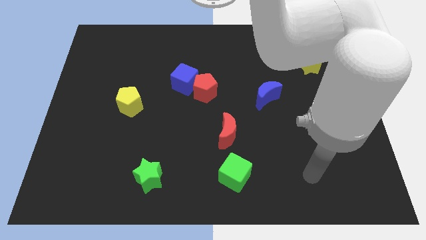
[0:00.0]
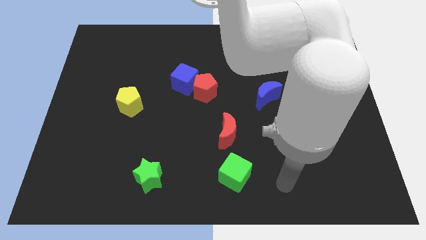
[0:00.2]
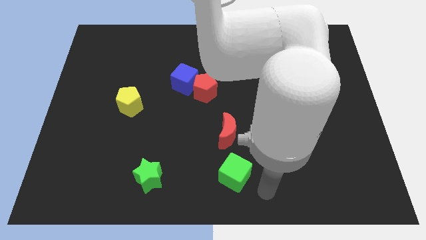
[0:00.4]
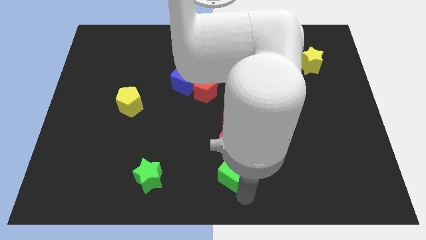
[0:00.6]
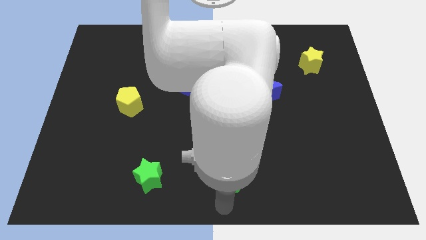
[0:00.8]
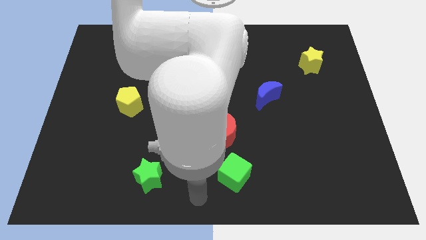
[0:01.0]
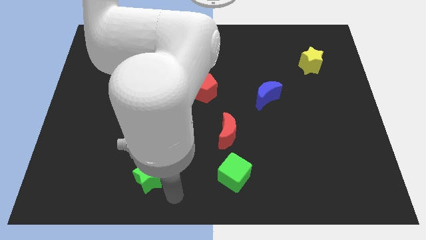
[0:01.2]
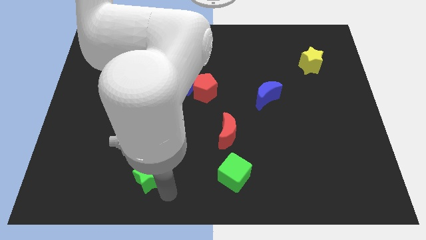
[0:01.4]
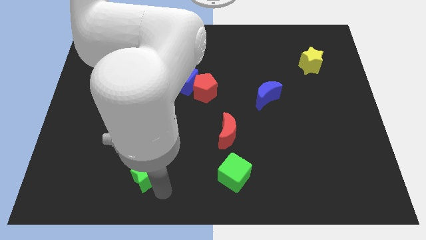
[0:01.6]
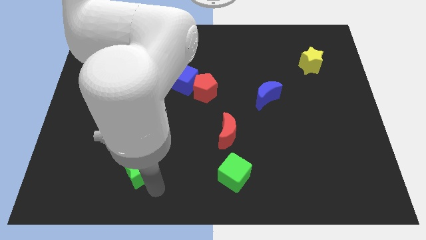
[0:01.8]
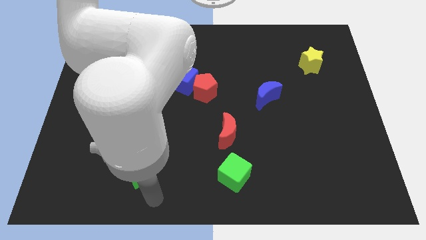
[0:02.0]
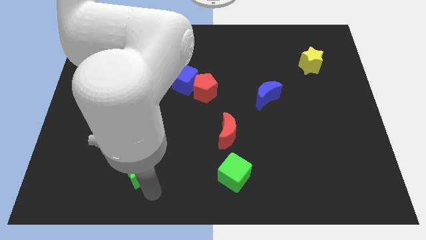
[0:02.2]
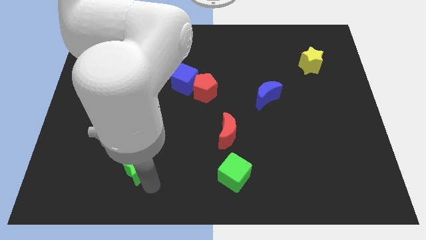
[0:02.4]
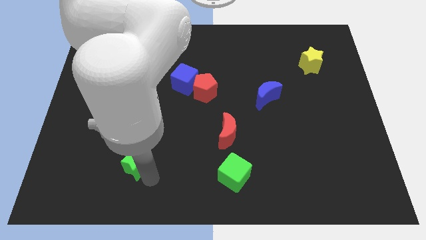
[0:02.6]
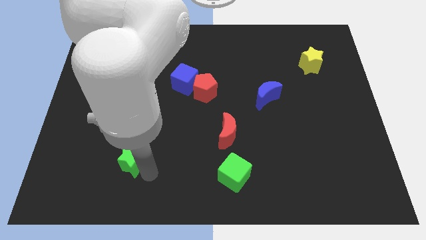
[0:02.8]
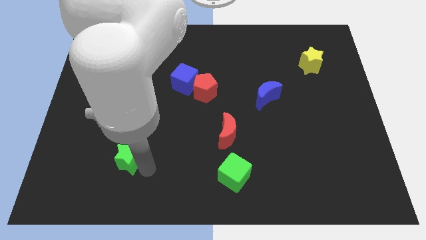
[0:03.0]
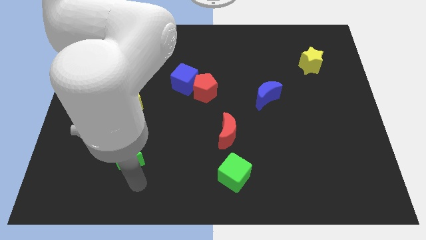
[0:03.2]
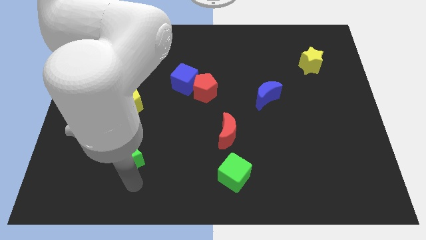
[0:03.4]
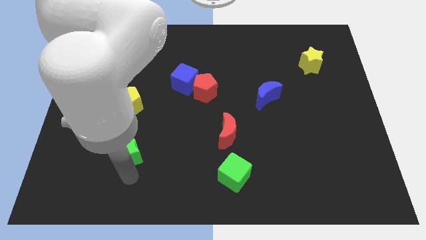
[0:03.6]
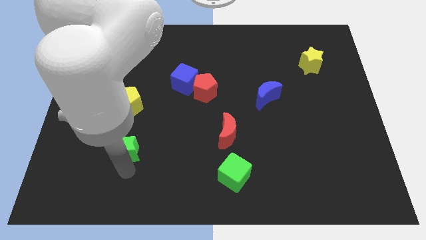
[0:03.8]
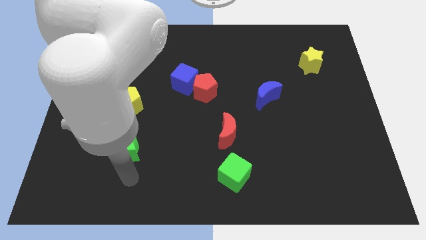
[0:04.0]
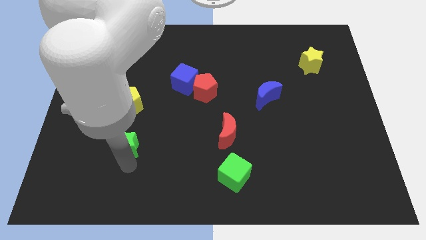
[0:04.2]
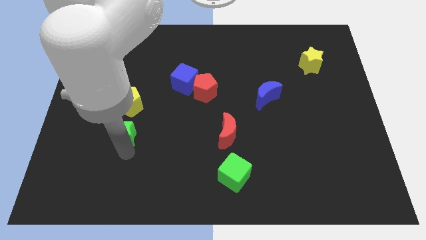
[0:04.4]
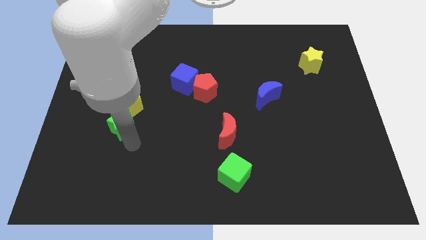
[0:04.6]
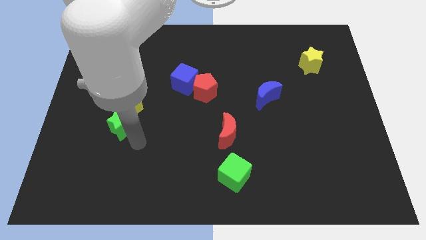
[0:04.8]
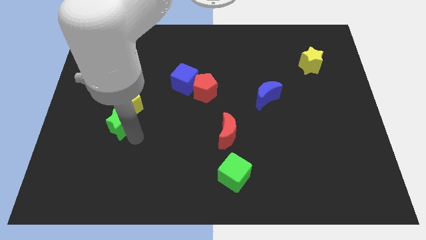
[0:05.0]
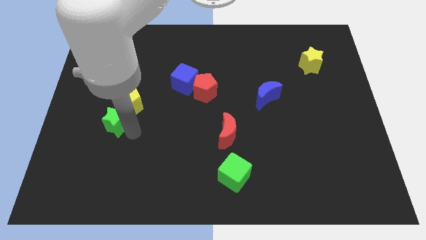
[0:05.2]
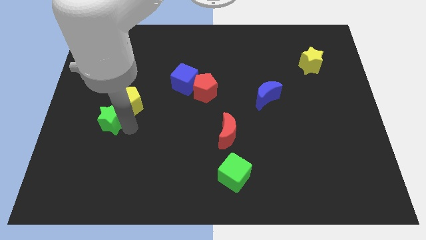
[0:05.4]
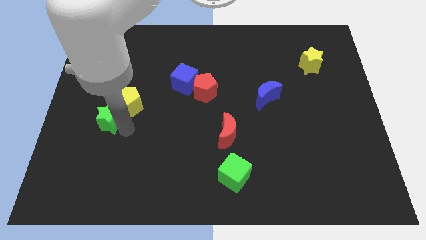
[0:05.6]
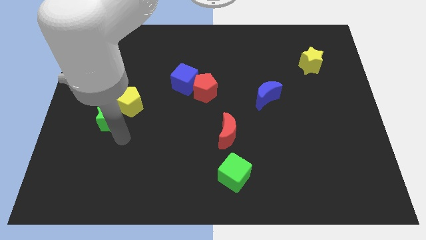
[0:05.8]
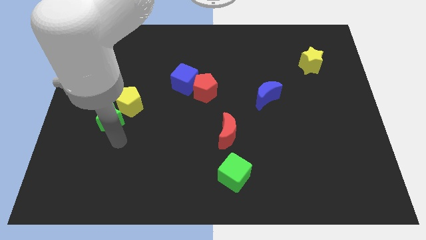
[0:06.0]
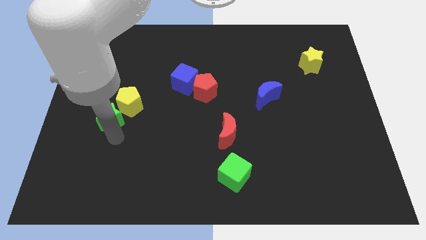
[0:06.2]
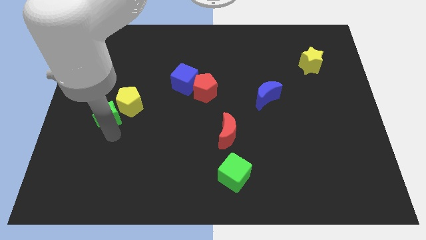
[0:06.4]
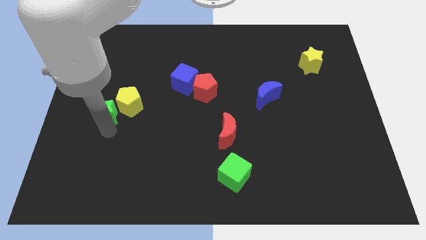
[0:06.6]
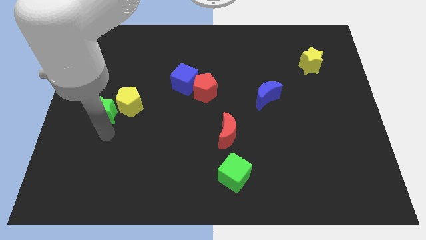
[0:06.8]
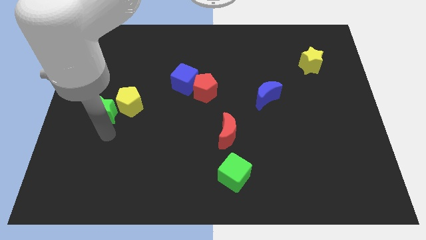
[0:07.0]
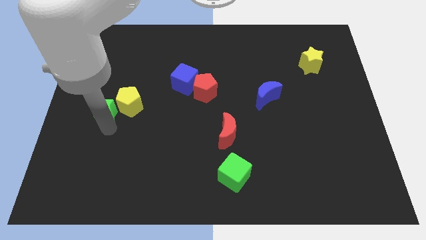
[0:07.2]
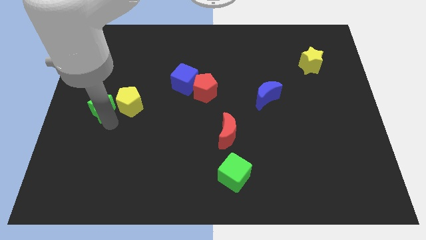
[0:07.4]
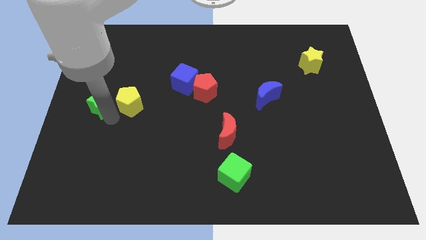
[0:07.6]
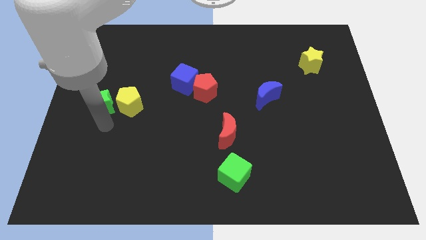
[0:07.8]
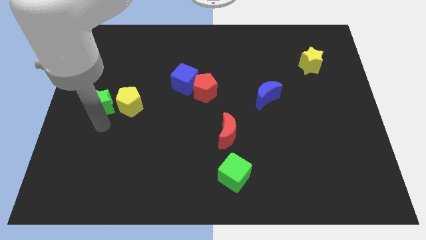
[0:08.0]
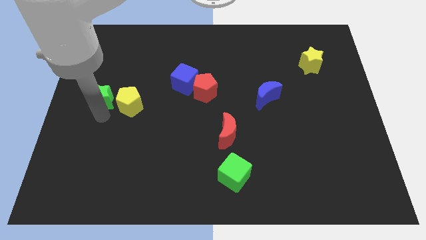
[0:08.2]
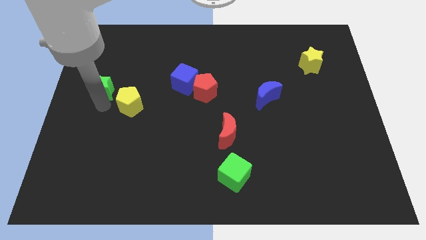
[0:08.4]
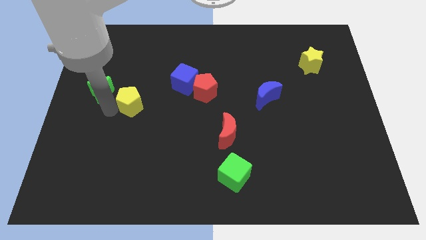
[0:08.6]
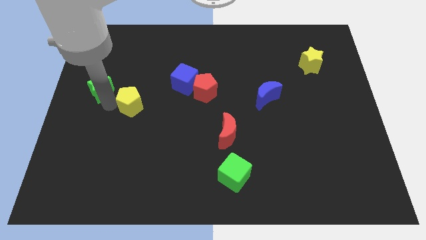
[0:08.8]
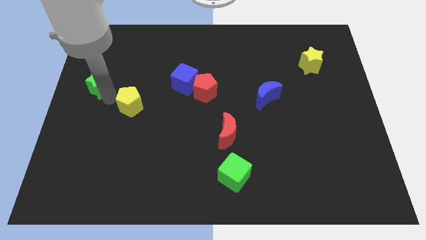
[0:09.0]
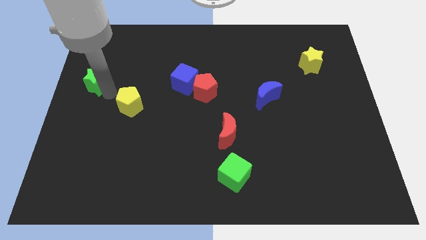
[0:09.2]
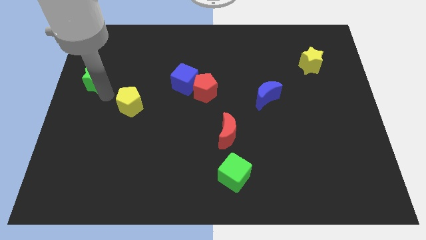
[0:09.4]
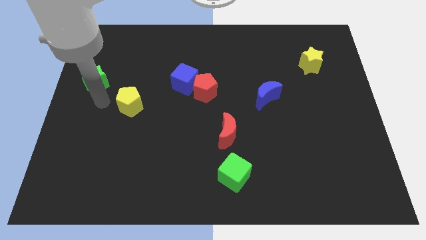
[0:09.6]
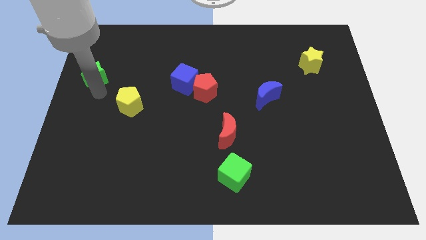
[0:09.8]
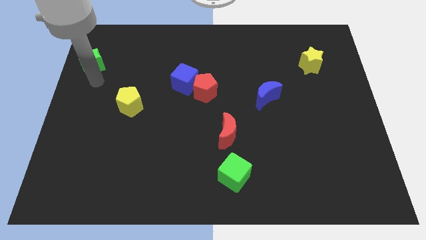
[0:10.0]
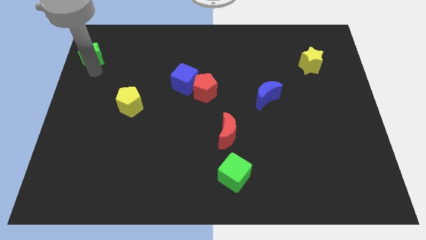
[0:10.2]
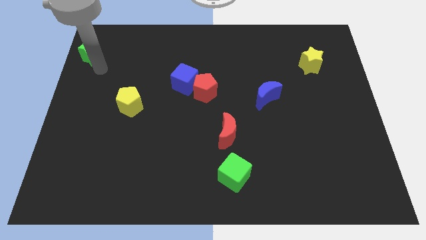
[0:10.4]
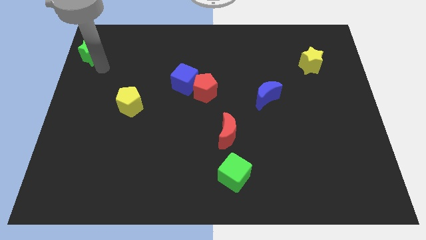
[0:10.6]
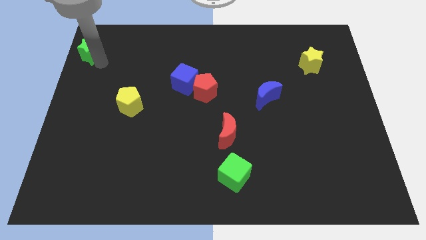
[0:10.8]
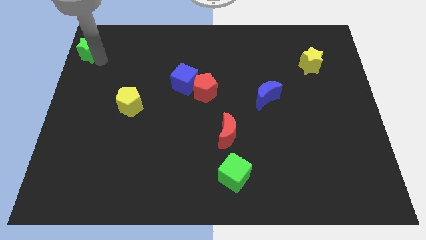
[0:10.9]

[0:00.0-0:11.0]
slide the green star to the upper left corner

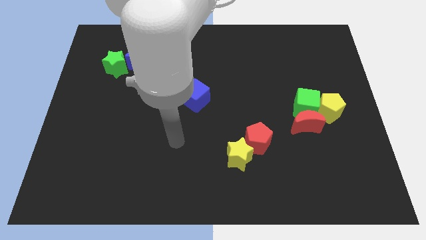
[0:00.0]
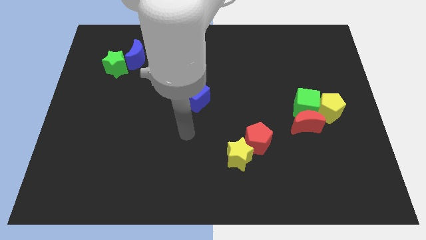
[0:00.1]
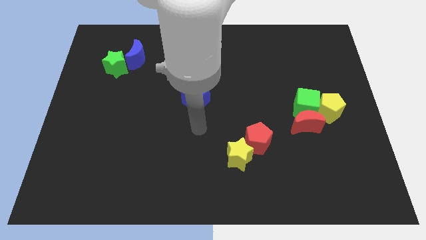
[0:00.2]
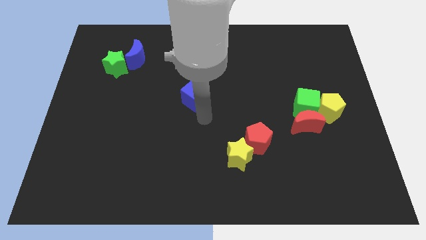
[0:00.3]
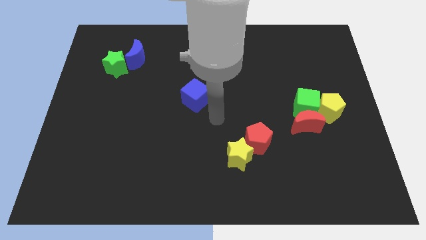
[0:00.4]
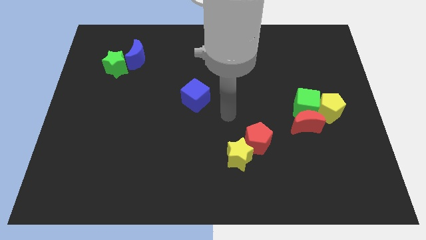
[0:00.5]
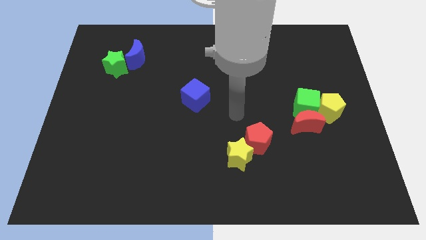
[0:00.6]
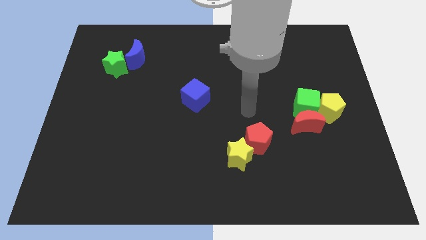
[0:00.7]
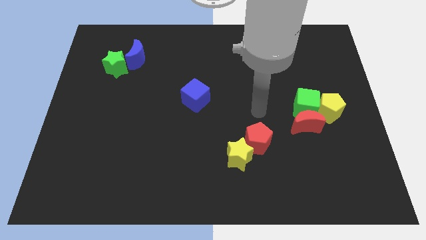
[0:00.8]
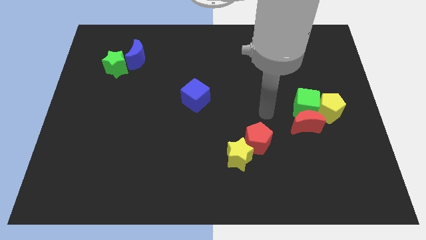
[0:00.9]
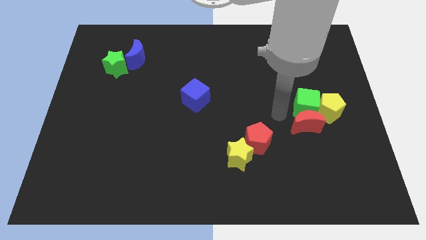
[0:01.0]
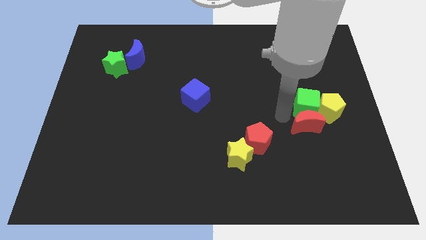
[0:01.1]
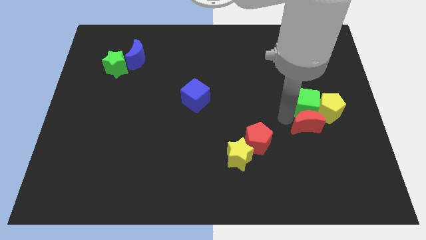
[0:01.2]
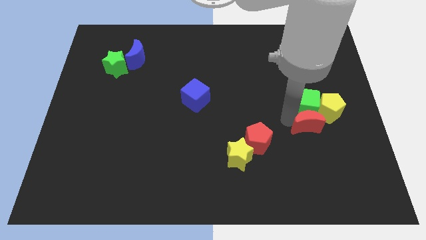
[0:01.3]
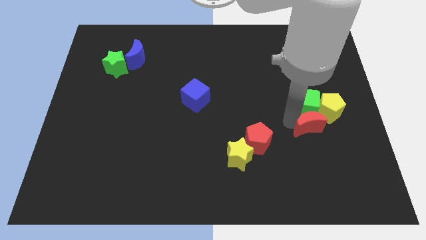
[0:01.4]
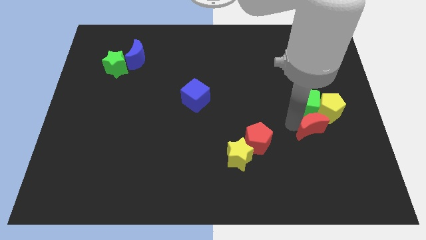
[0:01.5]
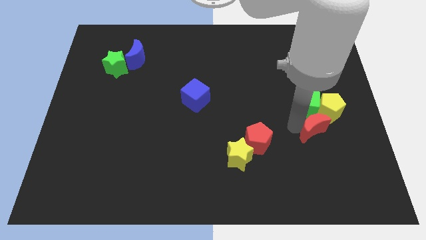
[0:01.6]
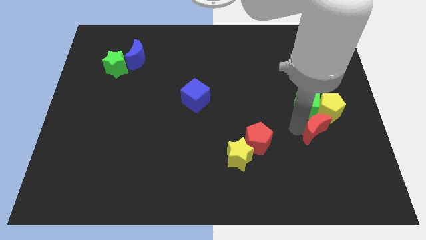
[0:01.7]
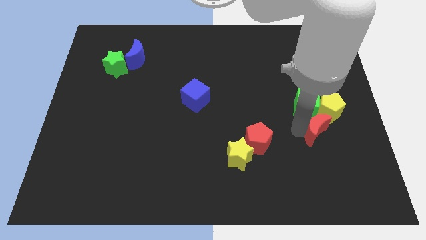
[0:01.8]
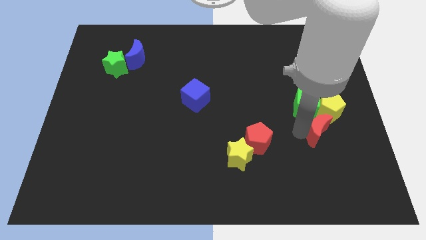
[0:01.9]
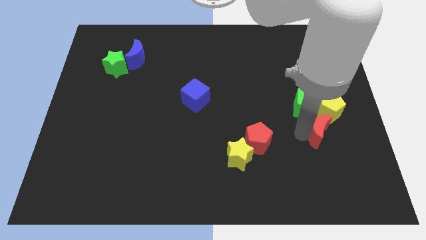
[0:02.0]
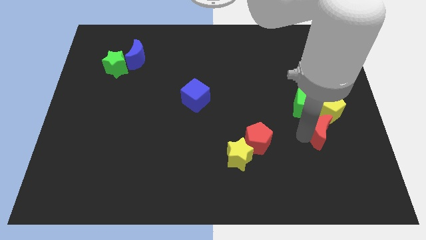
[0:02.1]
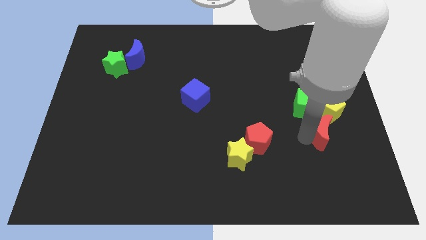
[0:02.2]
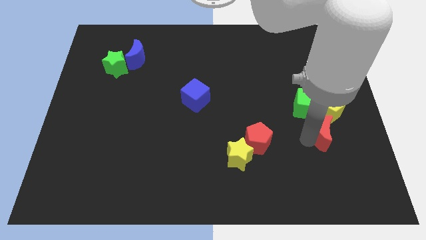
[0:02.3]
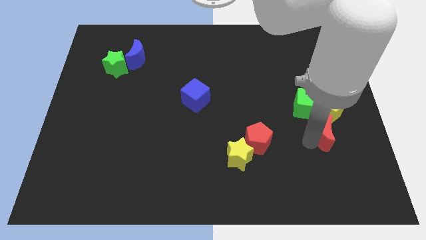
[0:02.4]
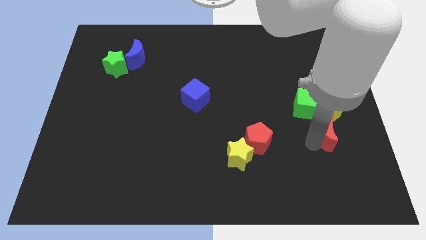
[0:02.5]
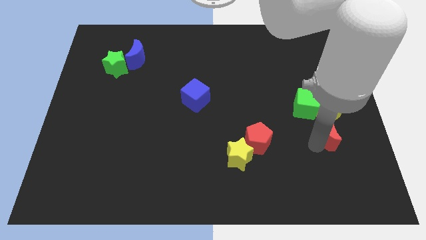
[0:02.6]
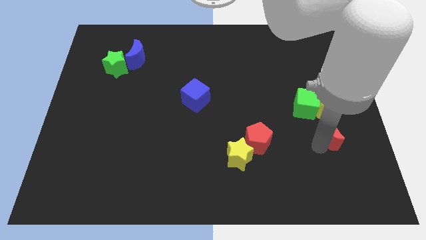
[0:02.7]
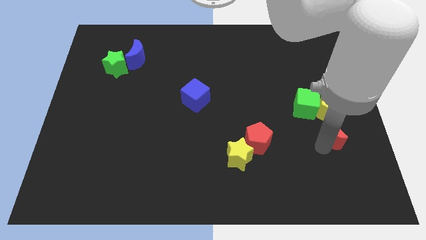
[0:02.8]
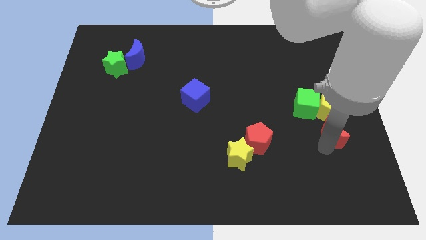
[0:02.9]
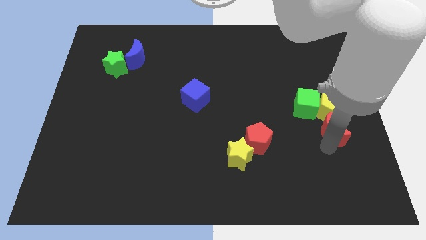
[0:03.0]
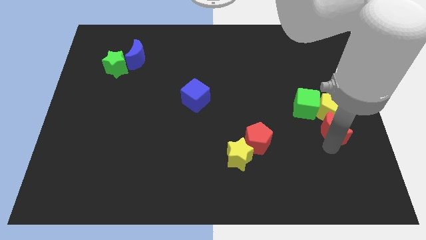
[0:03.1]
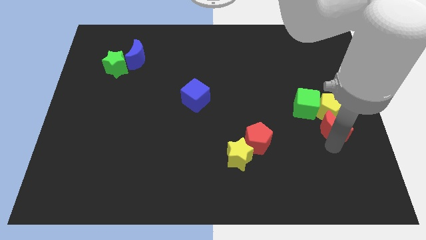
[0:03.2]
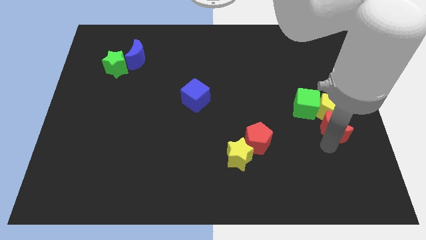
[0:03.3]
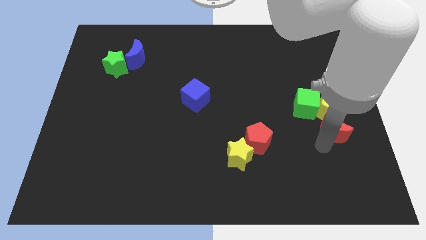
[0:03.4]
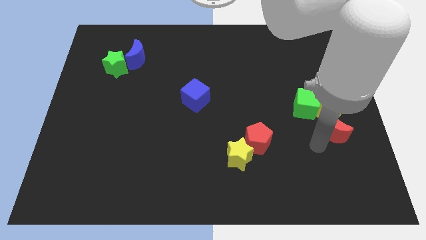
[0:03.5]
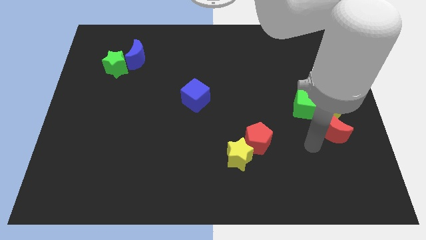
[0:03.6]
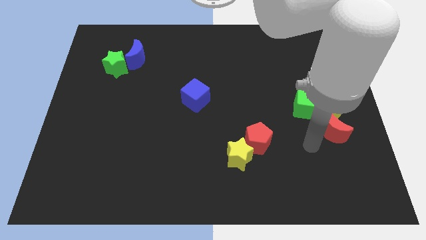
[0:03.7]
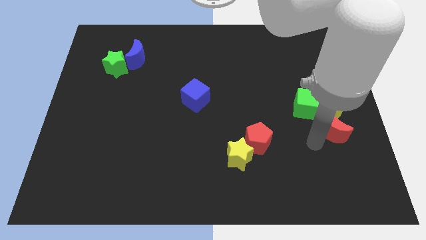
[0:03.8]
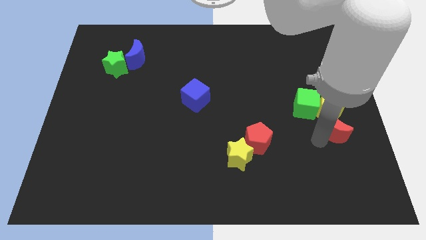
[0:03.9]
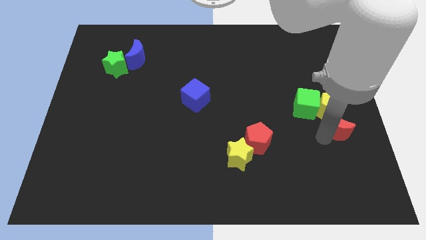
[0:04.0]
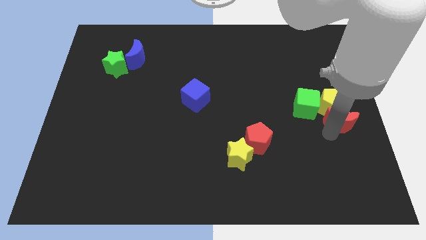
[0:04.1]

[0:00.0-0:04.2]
put the red moon to the right side of the board
